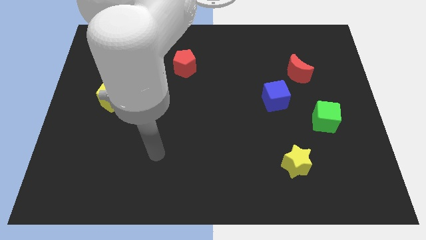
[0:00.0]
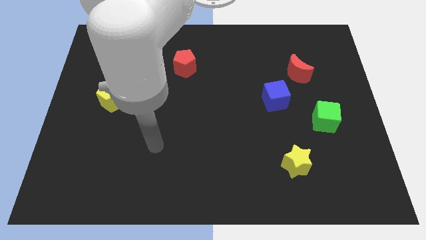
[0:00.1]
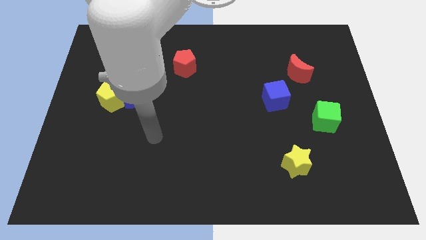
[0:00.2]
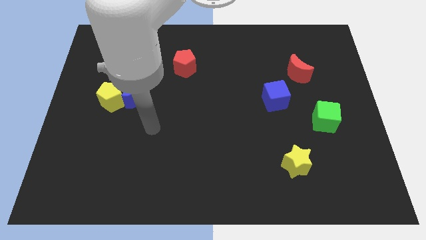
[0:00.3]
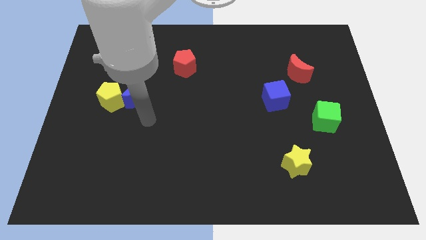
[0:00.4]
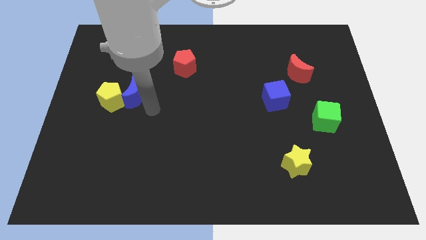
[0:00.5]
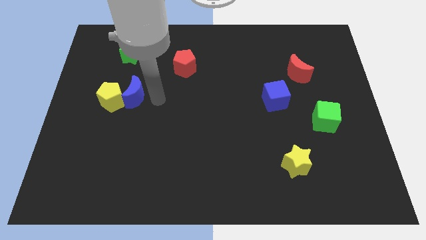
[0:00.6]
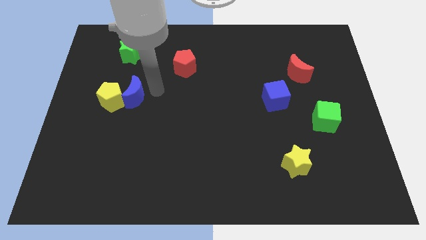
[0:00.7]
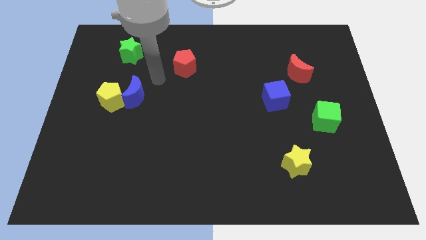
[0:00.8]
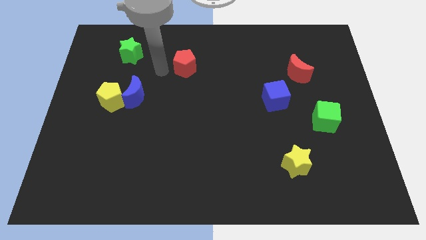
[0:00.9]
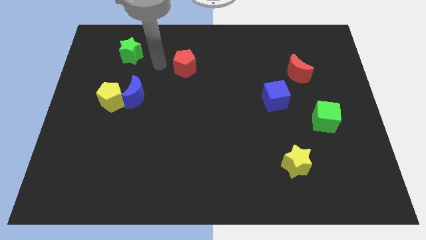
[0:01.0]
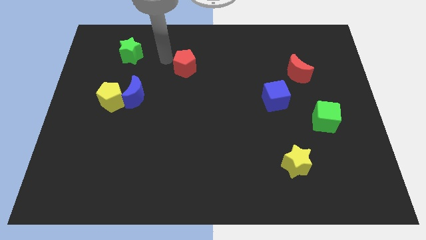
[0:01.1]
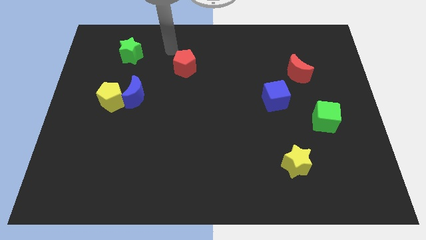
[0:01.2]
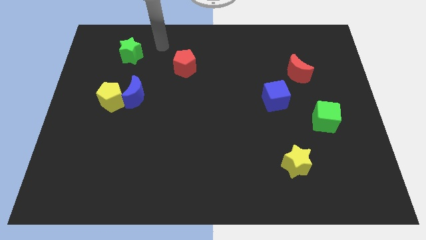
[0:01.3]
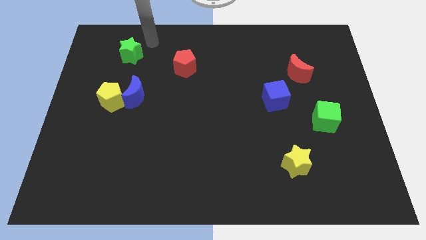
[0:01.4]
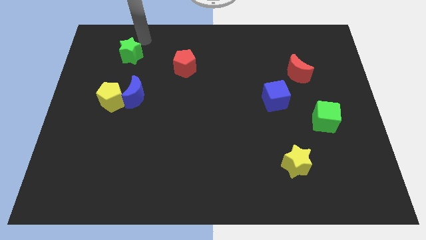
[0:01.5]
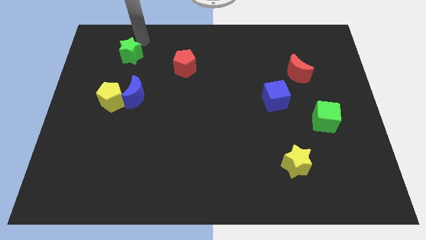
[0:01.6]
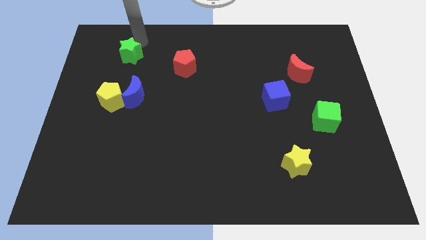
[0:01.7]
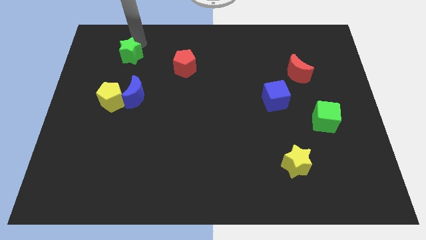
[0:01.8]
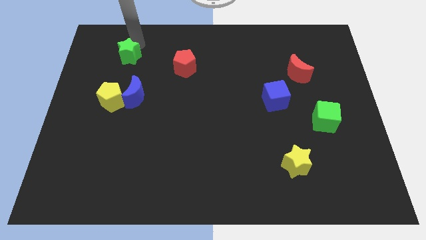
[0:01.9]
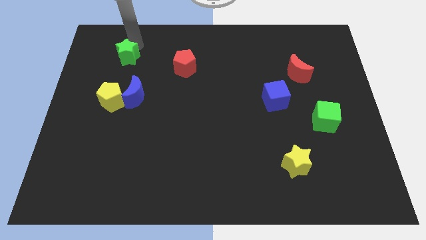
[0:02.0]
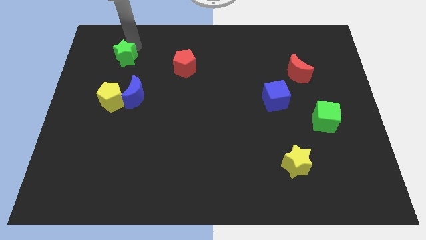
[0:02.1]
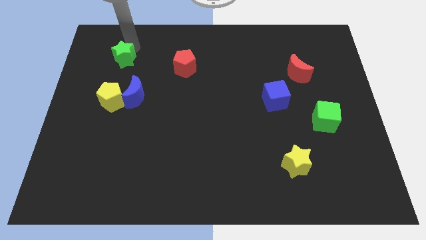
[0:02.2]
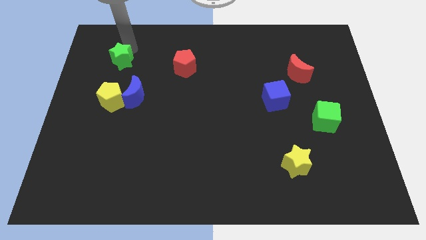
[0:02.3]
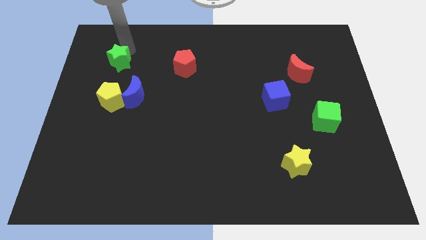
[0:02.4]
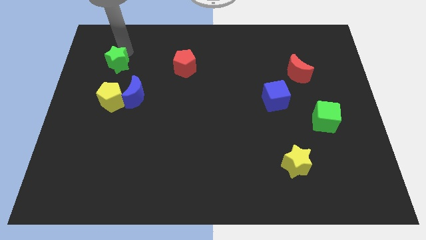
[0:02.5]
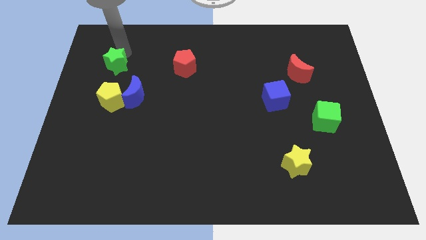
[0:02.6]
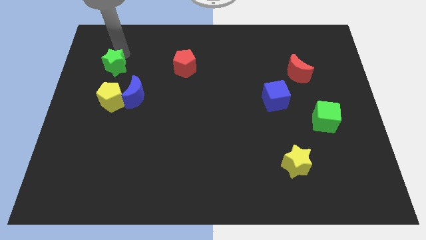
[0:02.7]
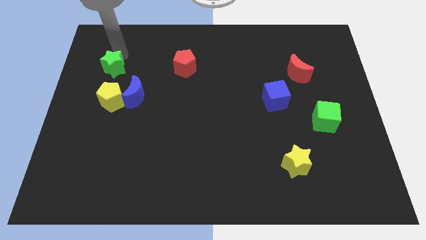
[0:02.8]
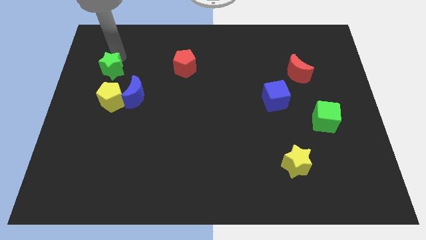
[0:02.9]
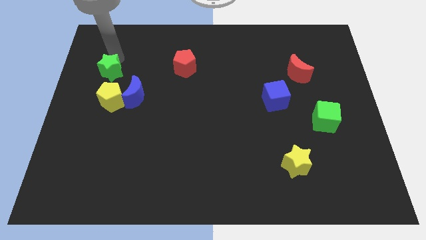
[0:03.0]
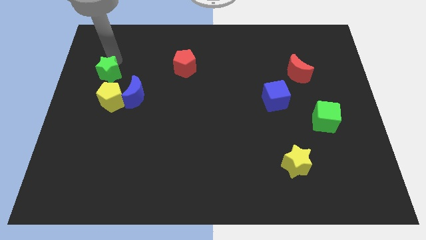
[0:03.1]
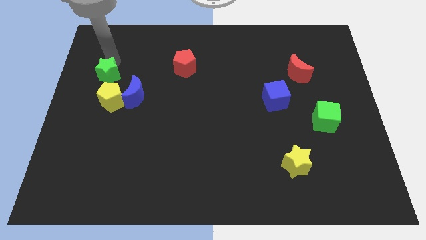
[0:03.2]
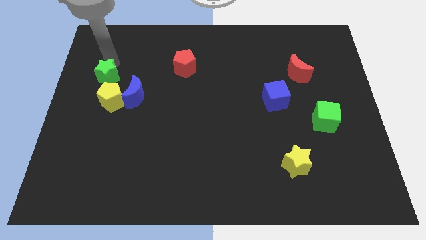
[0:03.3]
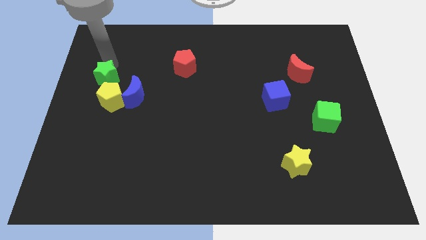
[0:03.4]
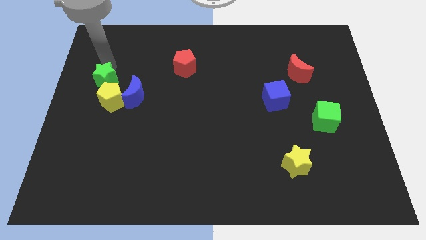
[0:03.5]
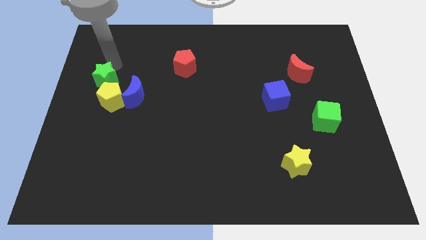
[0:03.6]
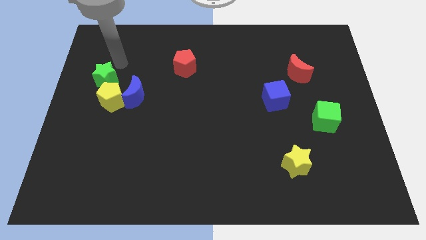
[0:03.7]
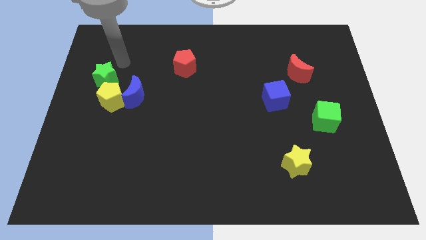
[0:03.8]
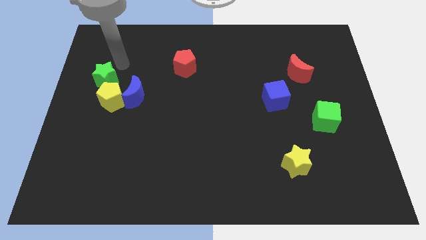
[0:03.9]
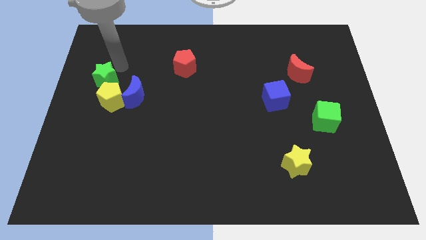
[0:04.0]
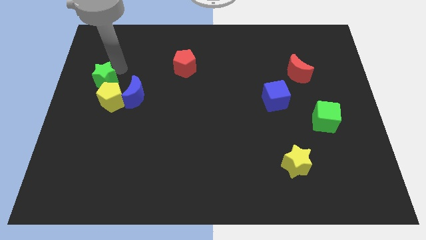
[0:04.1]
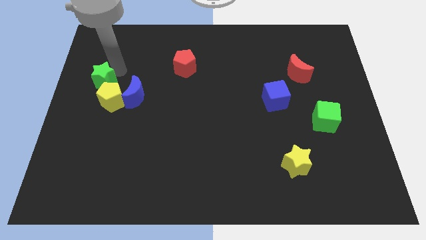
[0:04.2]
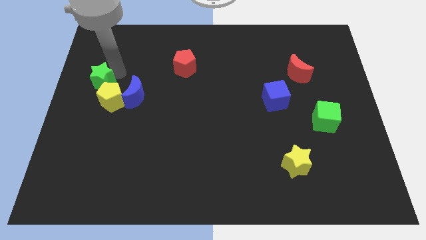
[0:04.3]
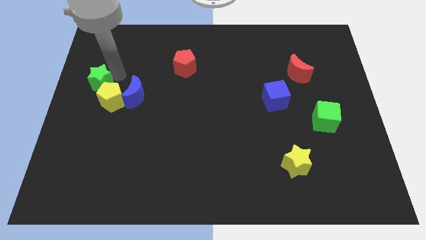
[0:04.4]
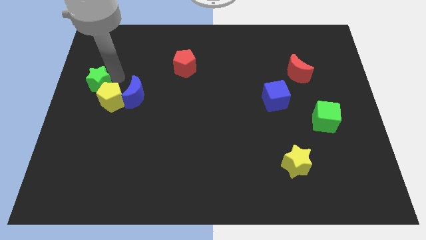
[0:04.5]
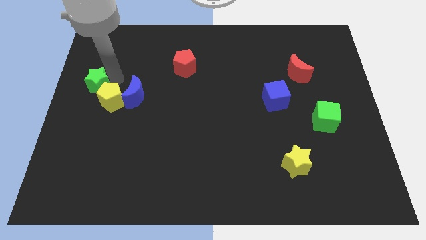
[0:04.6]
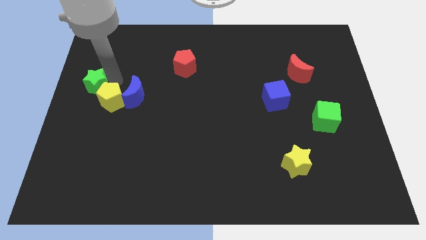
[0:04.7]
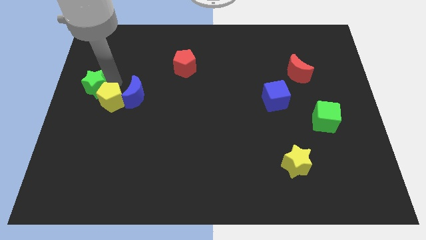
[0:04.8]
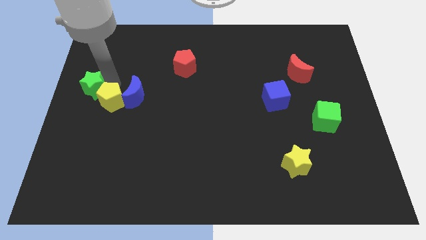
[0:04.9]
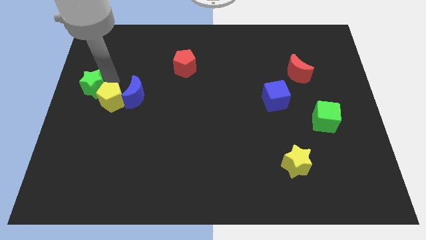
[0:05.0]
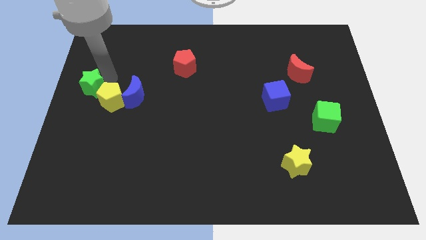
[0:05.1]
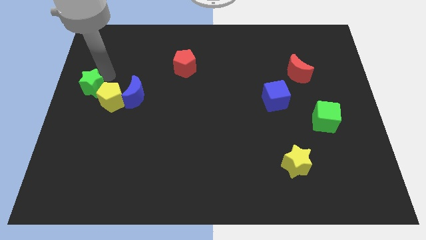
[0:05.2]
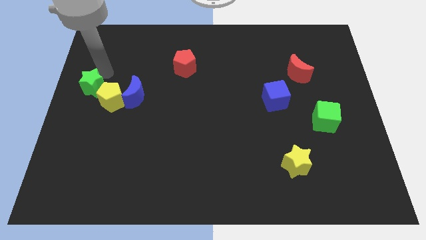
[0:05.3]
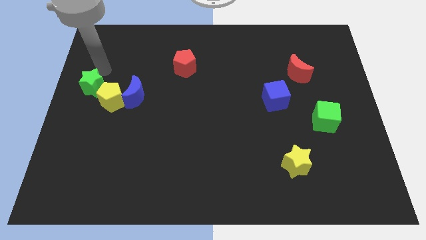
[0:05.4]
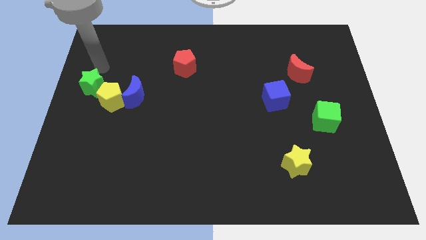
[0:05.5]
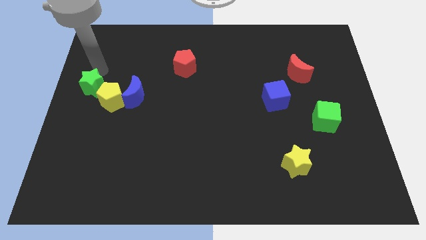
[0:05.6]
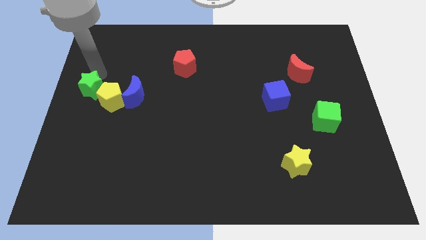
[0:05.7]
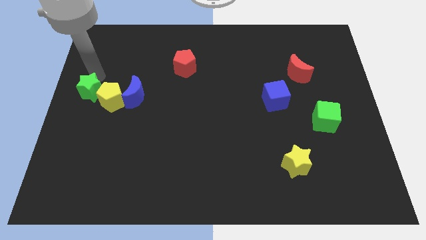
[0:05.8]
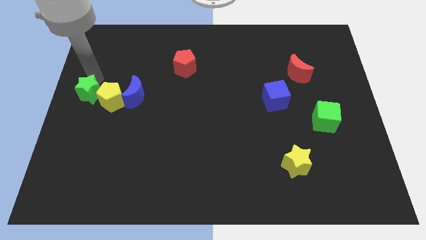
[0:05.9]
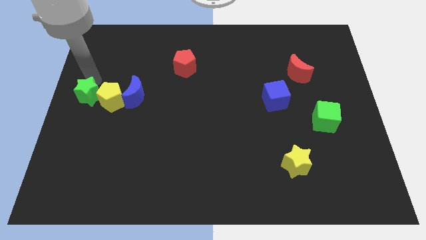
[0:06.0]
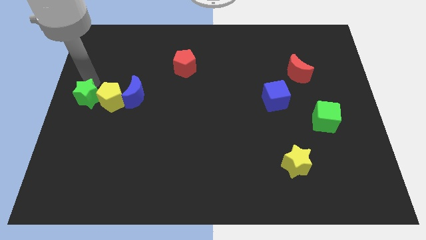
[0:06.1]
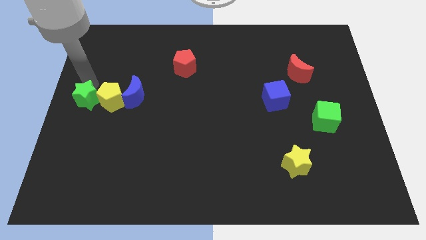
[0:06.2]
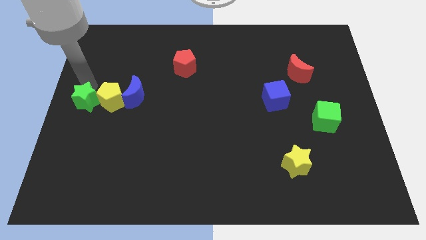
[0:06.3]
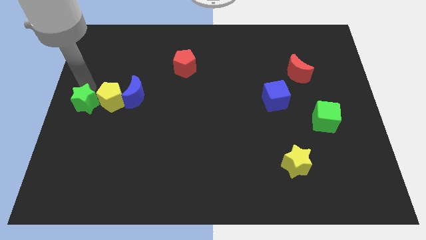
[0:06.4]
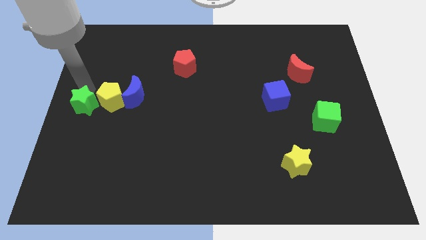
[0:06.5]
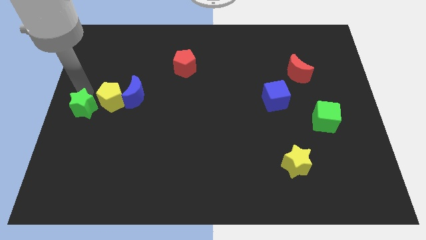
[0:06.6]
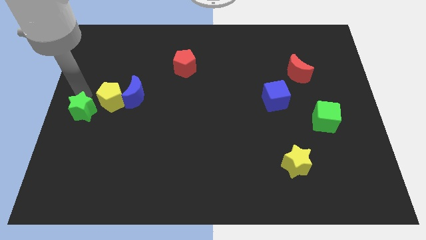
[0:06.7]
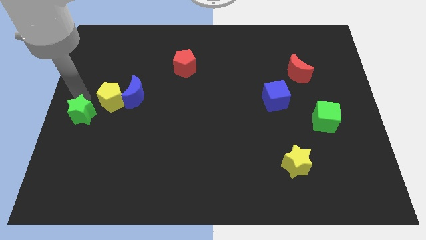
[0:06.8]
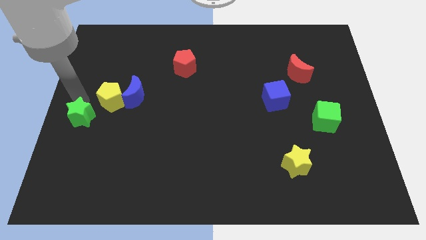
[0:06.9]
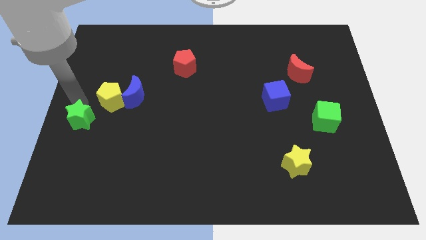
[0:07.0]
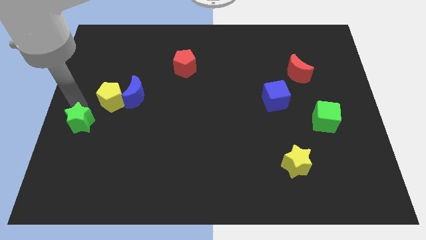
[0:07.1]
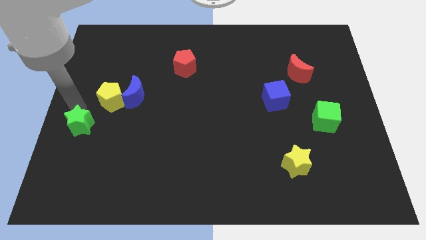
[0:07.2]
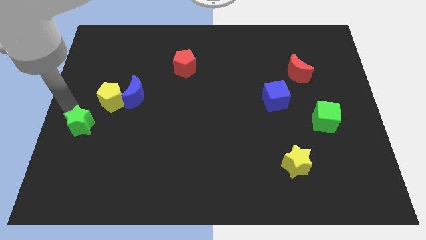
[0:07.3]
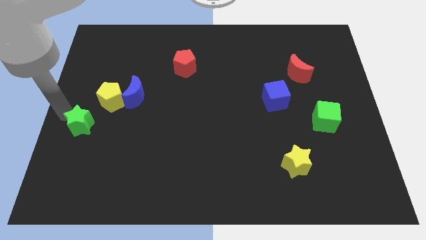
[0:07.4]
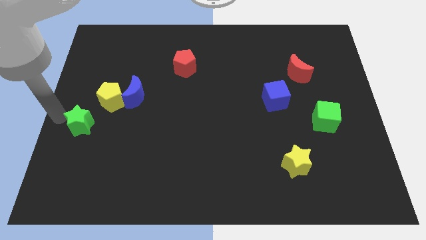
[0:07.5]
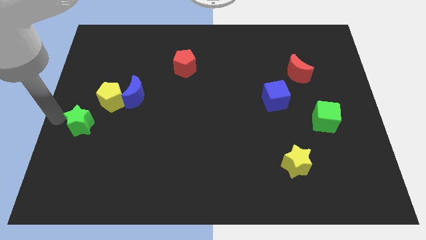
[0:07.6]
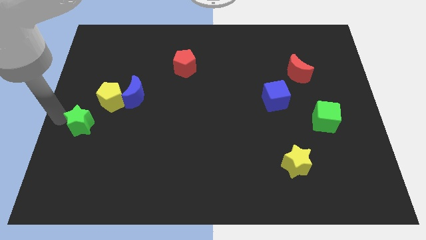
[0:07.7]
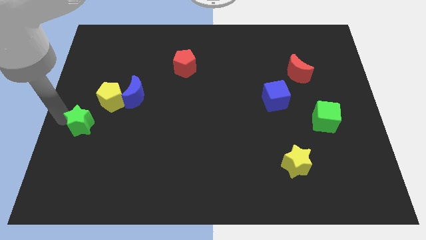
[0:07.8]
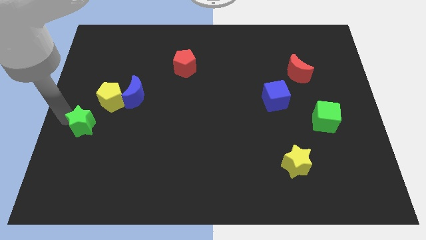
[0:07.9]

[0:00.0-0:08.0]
move the green star downwards
